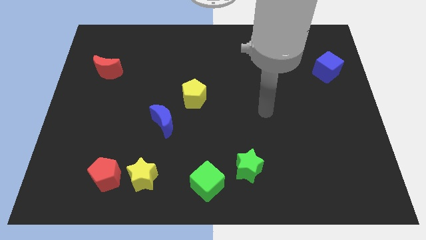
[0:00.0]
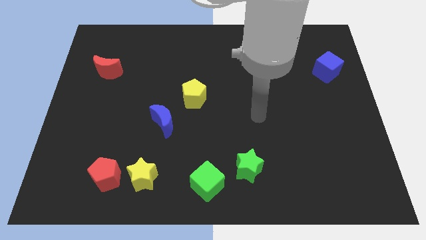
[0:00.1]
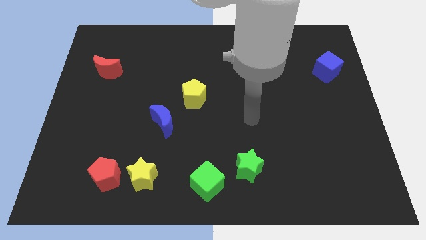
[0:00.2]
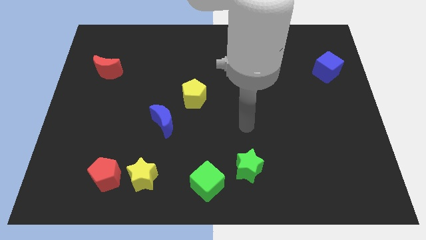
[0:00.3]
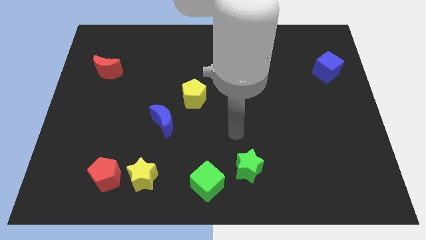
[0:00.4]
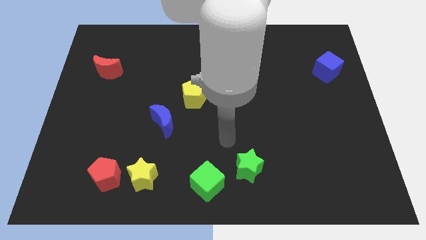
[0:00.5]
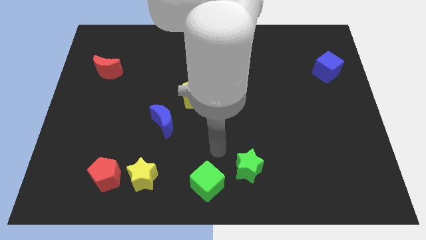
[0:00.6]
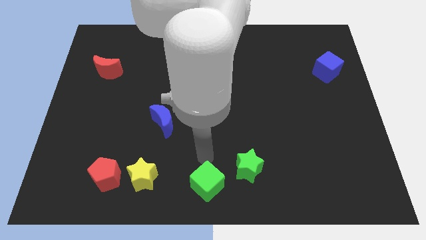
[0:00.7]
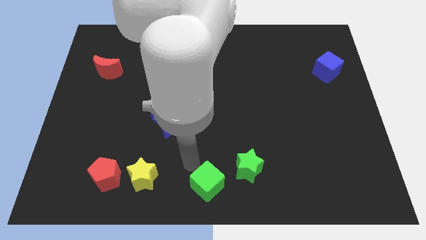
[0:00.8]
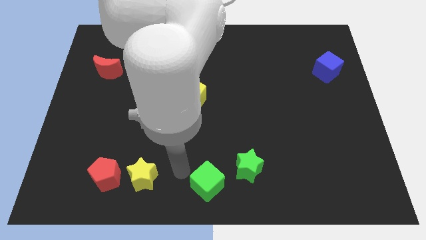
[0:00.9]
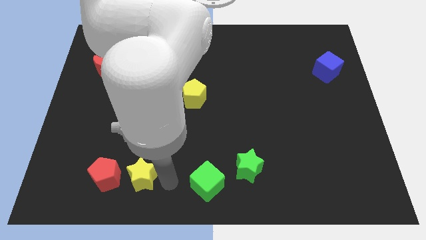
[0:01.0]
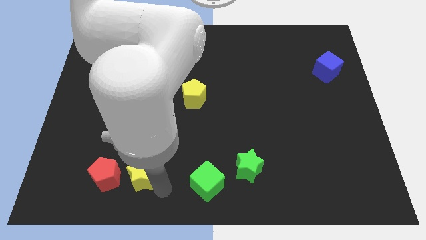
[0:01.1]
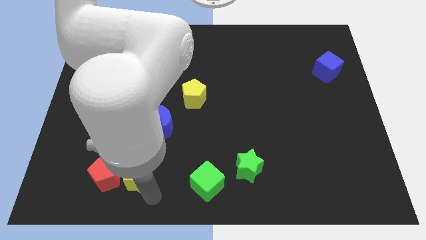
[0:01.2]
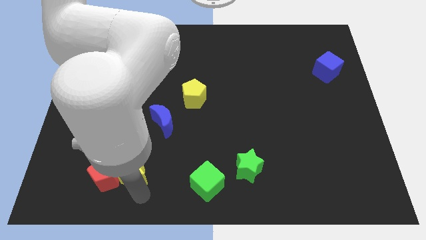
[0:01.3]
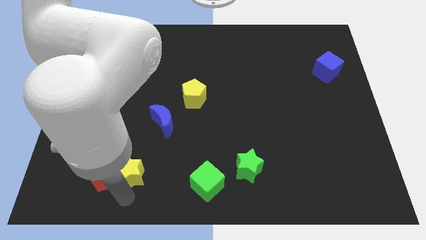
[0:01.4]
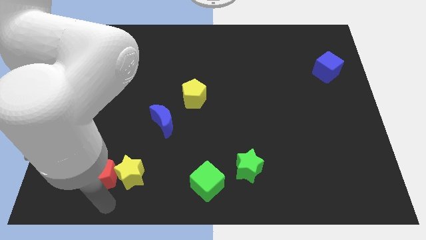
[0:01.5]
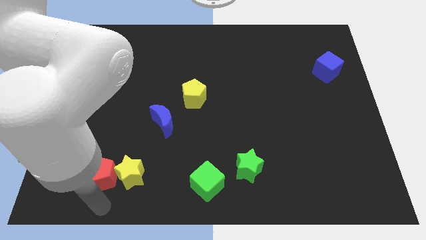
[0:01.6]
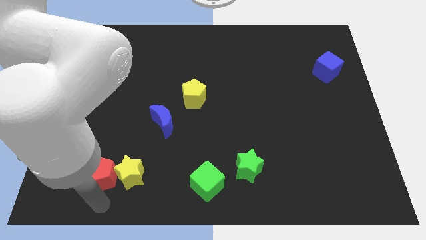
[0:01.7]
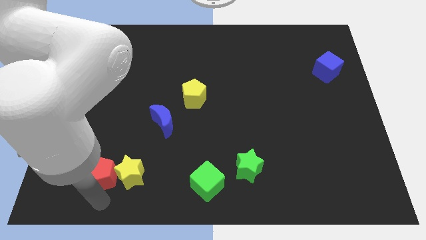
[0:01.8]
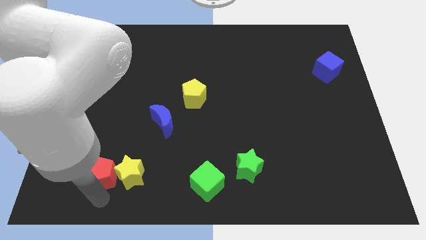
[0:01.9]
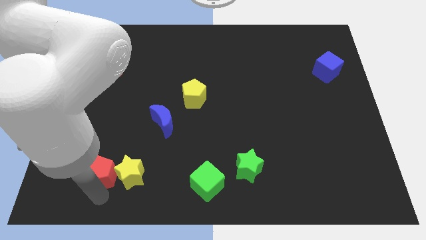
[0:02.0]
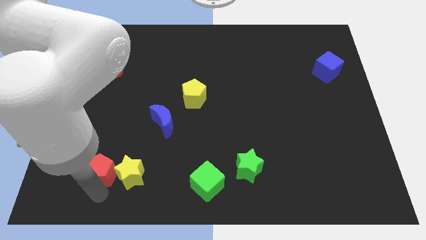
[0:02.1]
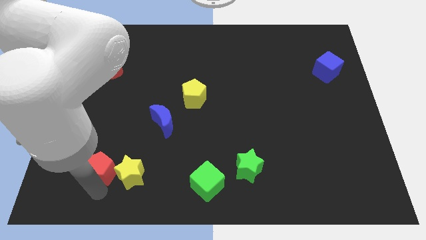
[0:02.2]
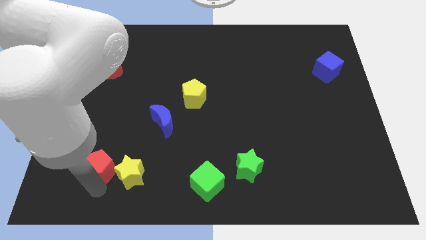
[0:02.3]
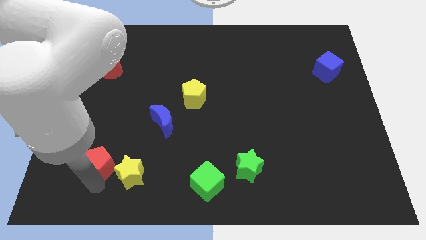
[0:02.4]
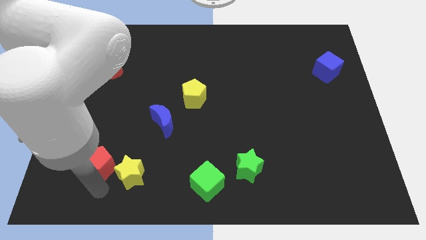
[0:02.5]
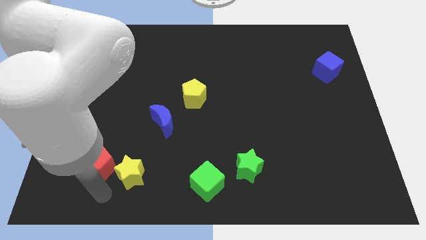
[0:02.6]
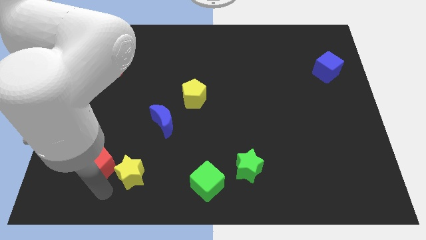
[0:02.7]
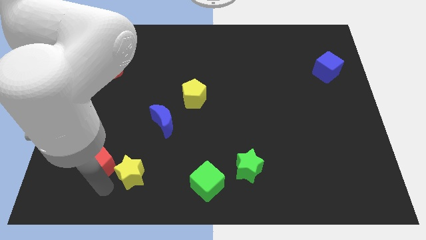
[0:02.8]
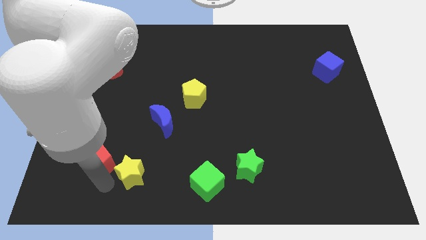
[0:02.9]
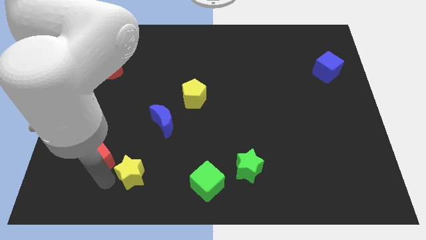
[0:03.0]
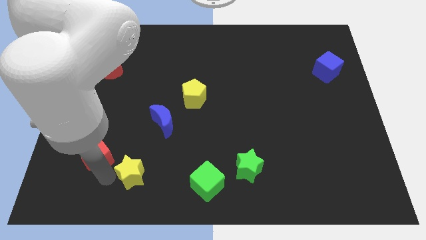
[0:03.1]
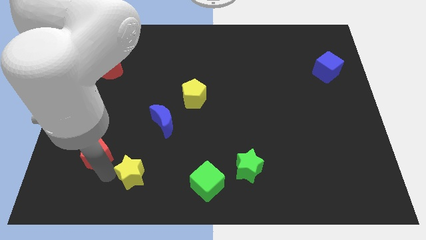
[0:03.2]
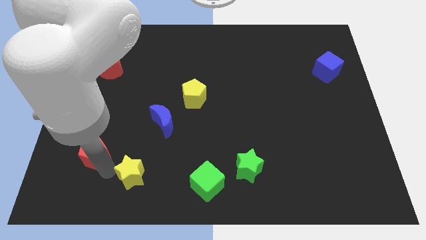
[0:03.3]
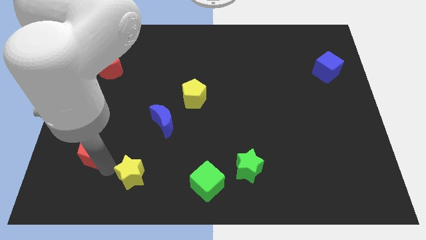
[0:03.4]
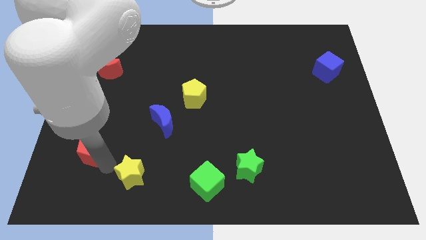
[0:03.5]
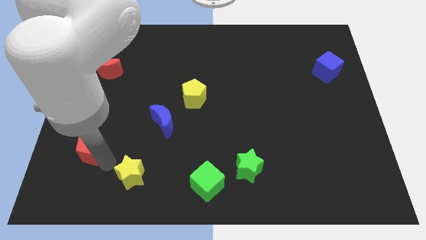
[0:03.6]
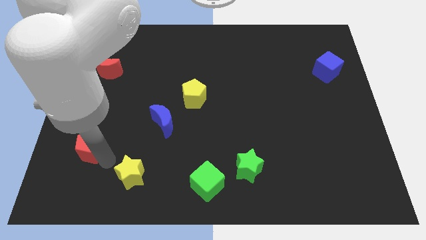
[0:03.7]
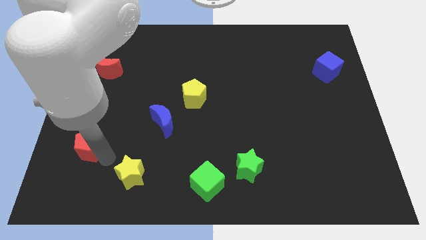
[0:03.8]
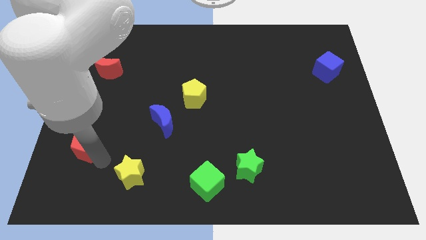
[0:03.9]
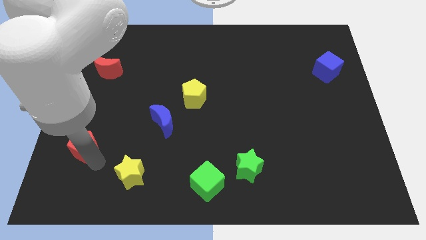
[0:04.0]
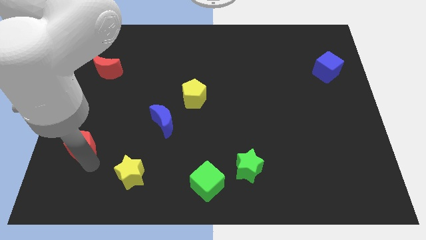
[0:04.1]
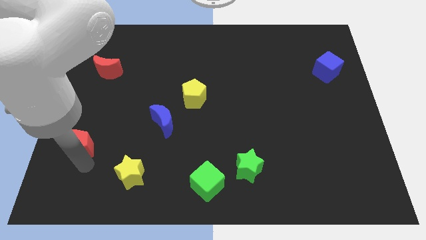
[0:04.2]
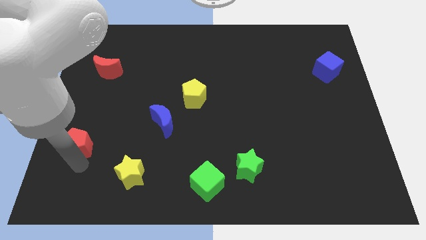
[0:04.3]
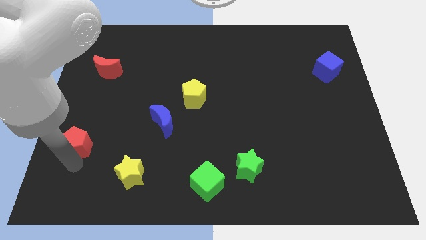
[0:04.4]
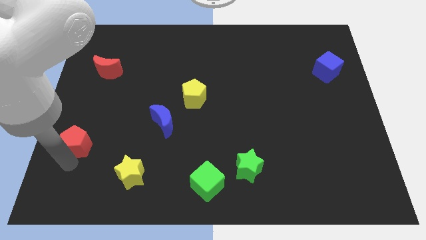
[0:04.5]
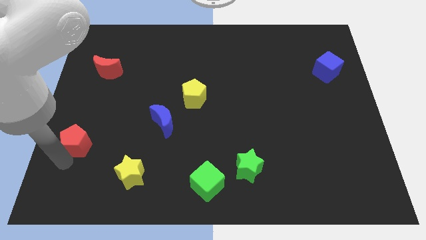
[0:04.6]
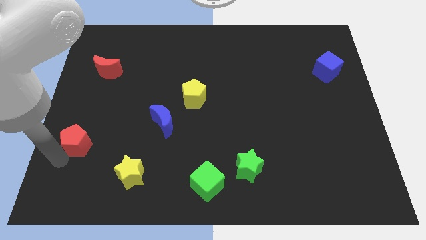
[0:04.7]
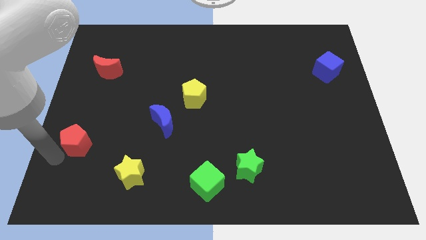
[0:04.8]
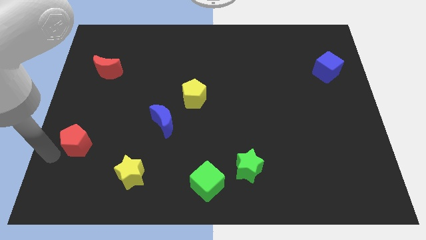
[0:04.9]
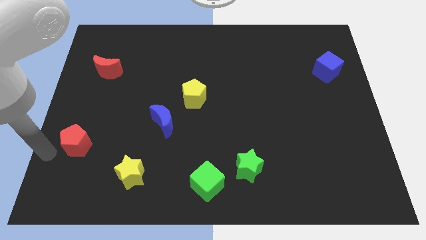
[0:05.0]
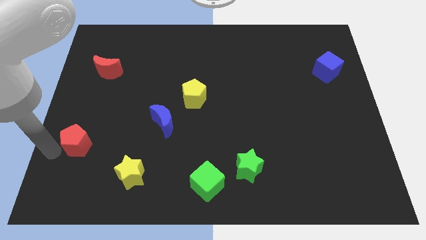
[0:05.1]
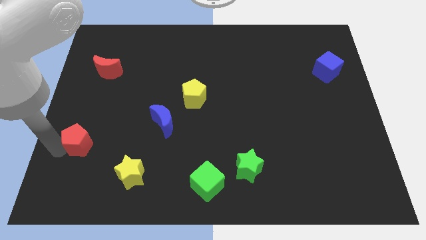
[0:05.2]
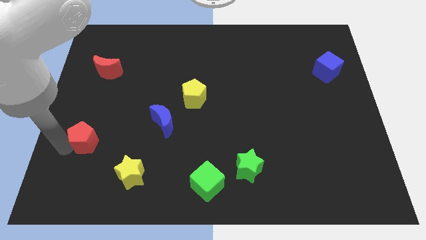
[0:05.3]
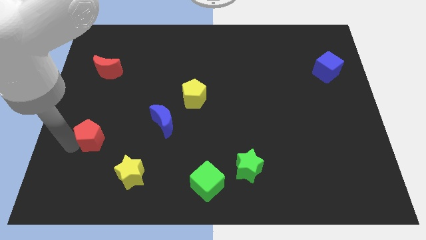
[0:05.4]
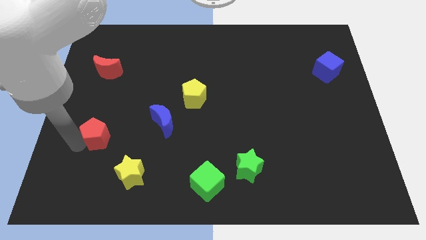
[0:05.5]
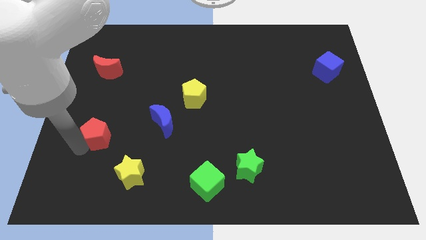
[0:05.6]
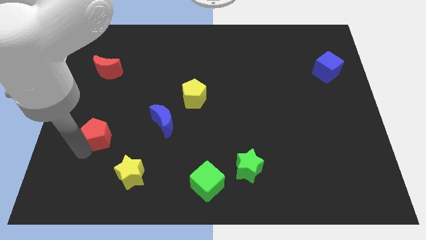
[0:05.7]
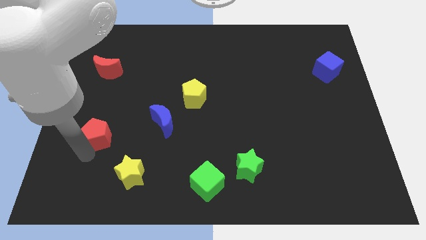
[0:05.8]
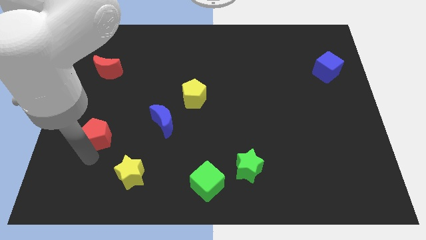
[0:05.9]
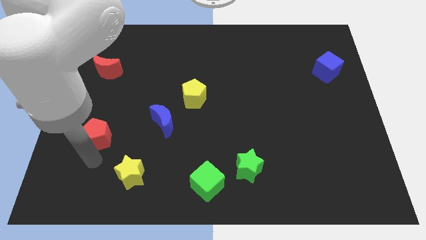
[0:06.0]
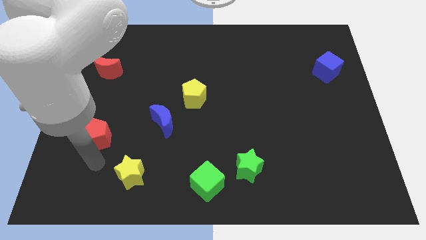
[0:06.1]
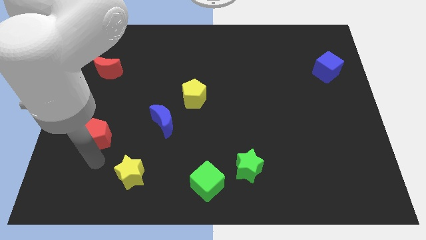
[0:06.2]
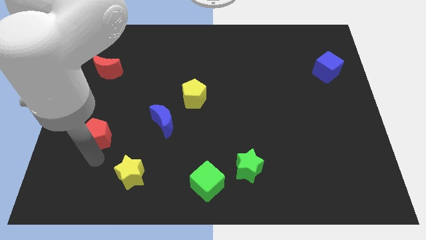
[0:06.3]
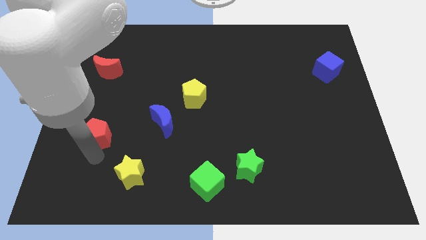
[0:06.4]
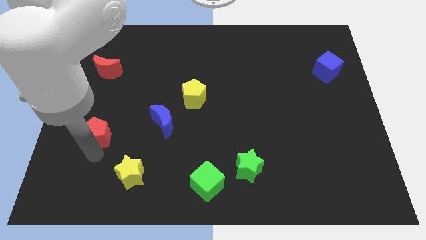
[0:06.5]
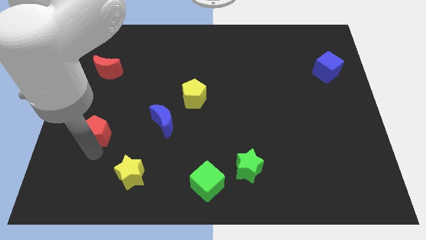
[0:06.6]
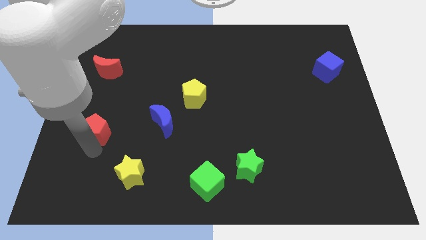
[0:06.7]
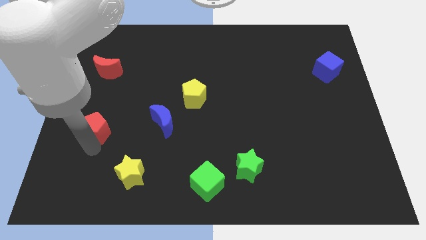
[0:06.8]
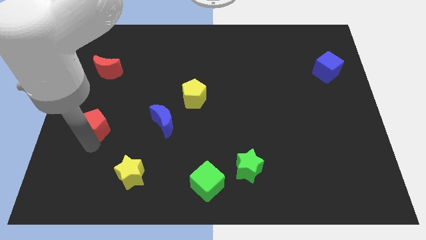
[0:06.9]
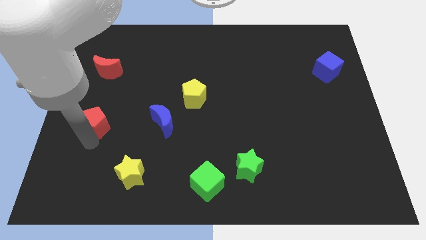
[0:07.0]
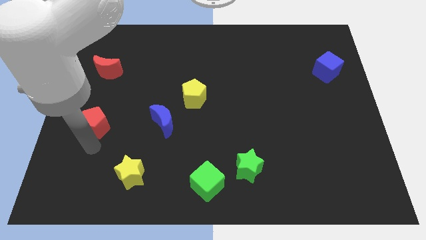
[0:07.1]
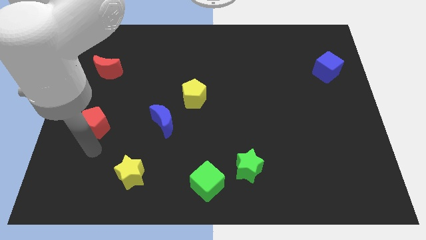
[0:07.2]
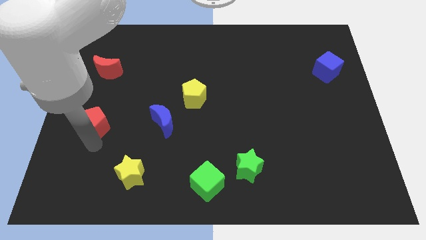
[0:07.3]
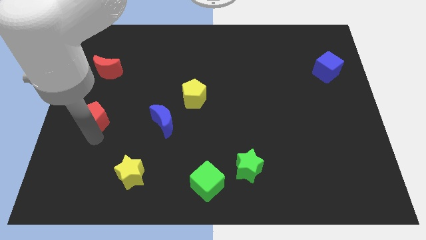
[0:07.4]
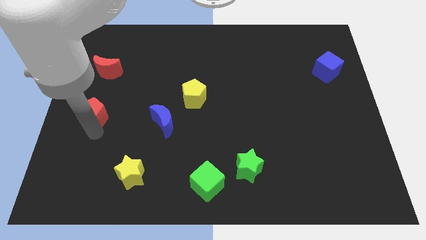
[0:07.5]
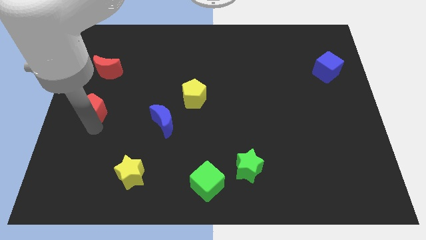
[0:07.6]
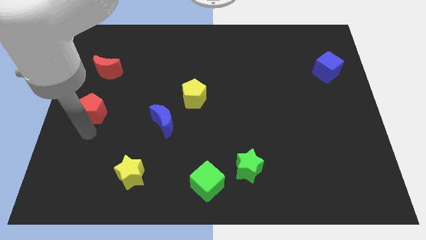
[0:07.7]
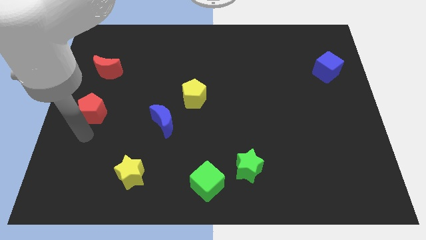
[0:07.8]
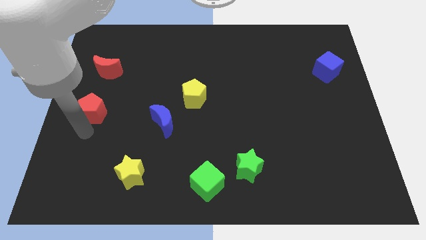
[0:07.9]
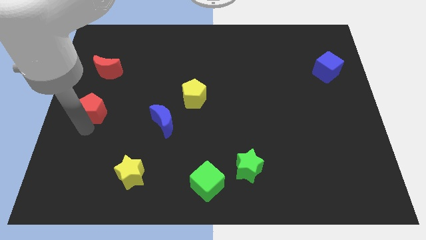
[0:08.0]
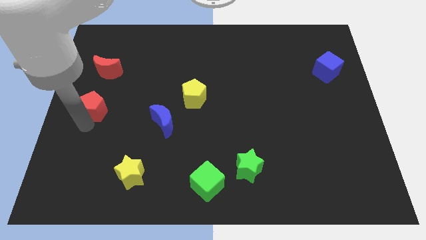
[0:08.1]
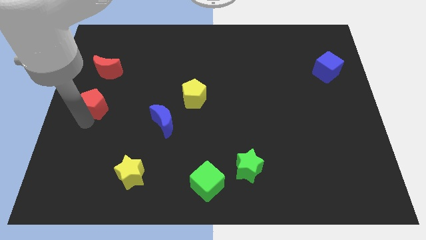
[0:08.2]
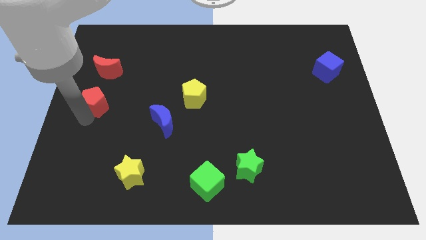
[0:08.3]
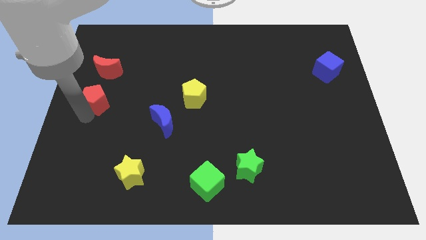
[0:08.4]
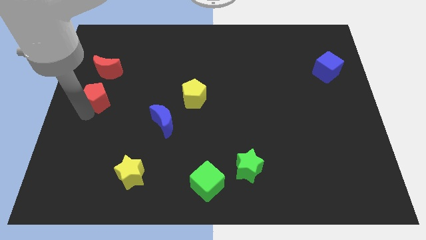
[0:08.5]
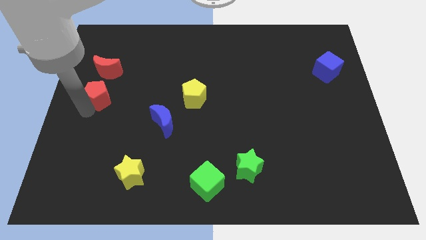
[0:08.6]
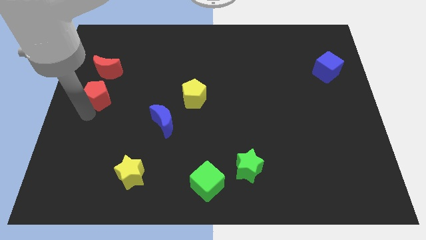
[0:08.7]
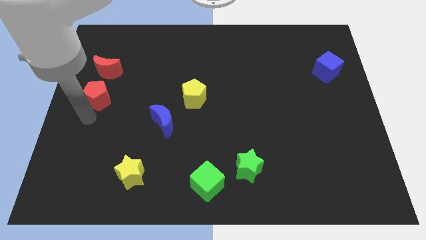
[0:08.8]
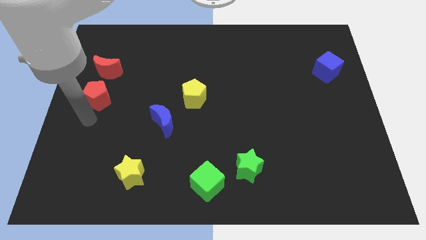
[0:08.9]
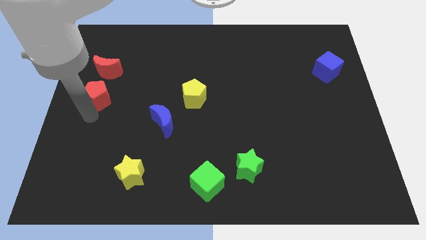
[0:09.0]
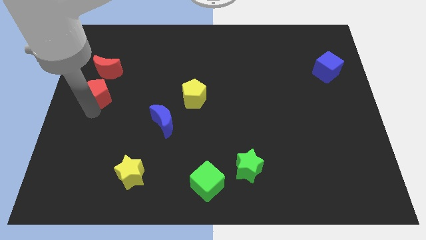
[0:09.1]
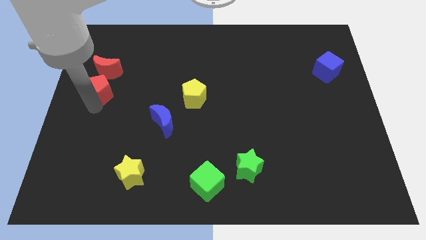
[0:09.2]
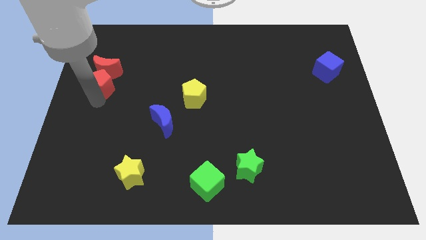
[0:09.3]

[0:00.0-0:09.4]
move the red pentagon next to the red moon
